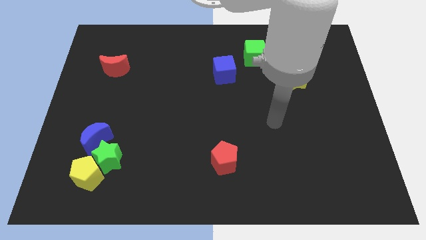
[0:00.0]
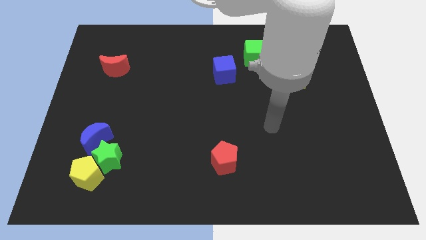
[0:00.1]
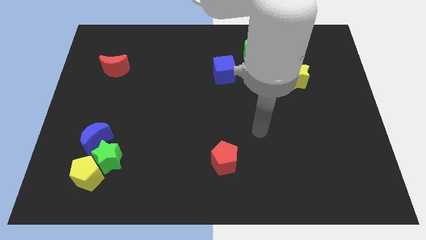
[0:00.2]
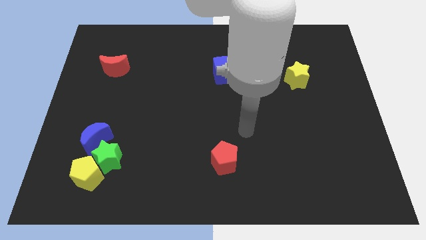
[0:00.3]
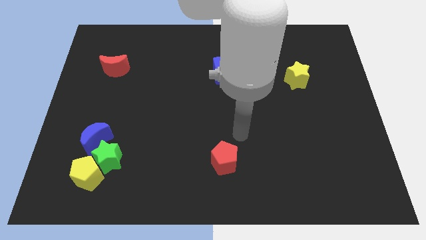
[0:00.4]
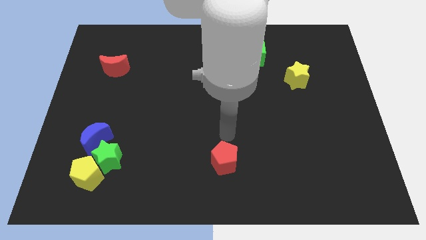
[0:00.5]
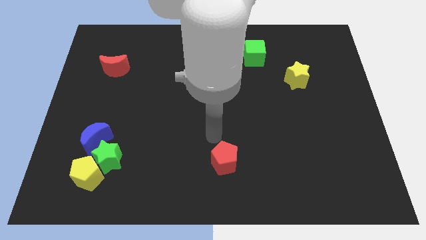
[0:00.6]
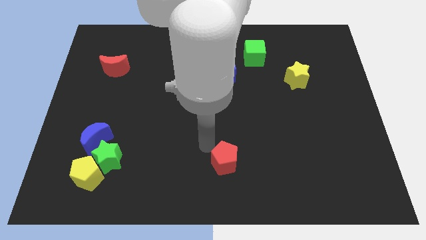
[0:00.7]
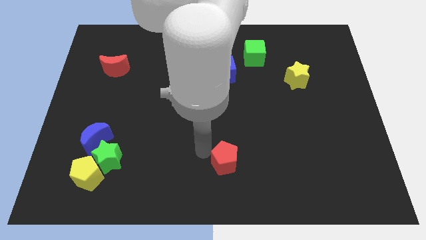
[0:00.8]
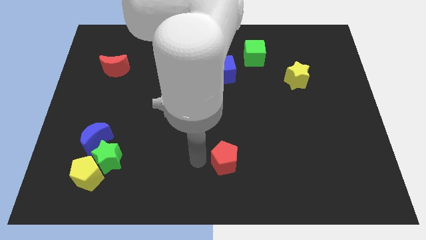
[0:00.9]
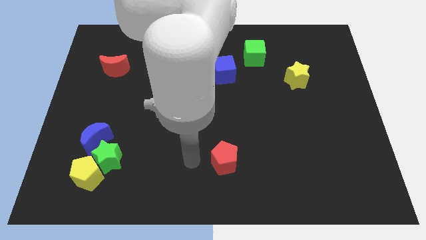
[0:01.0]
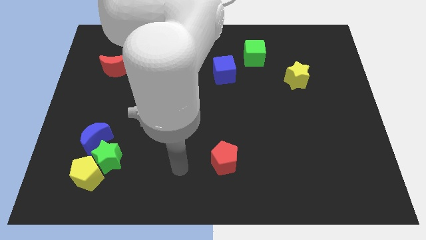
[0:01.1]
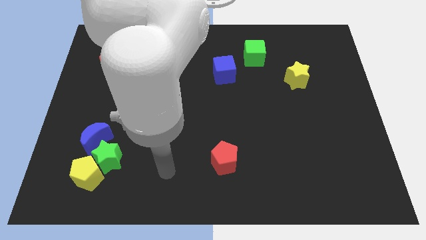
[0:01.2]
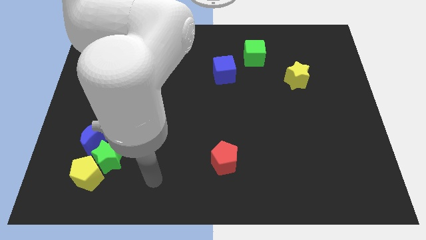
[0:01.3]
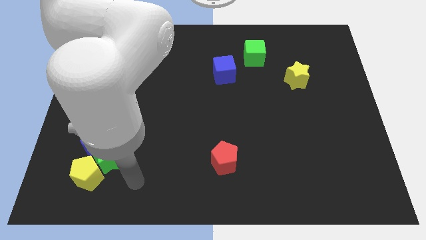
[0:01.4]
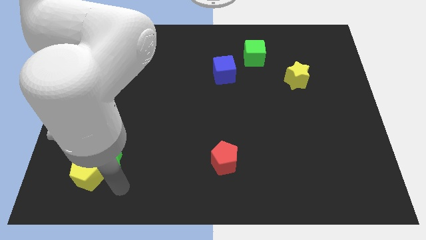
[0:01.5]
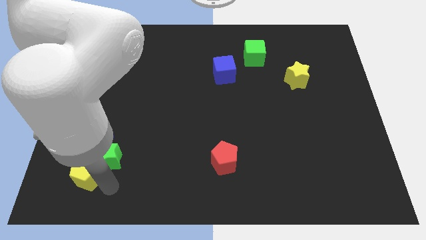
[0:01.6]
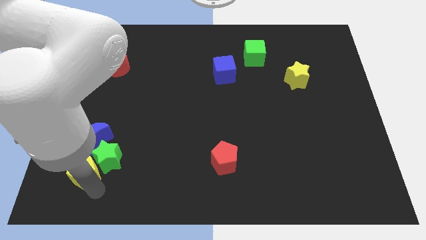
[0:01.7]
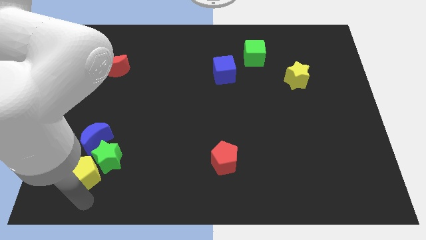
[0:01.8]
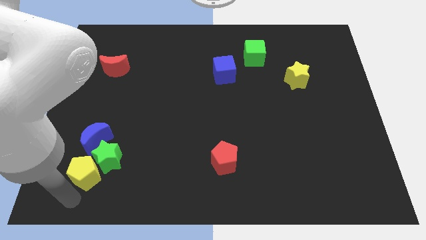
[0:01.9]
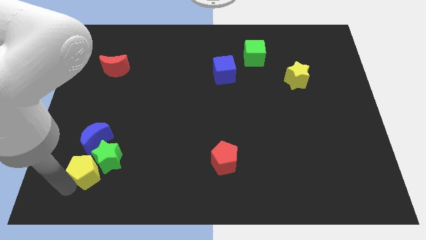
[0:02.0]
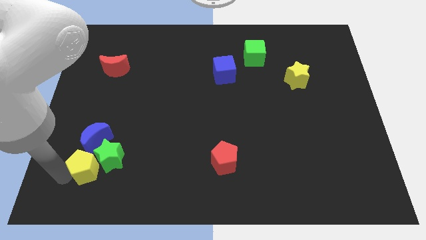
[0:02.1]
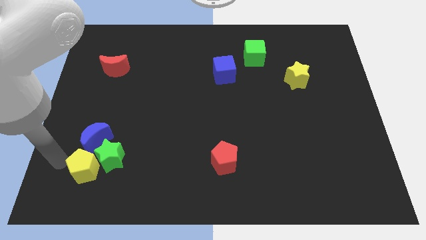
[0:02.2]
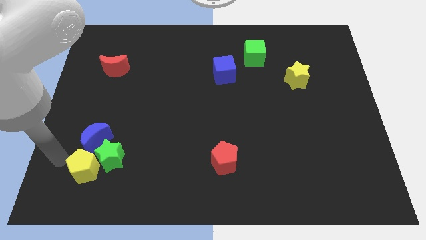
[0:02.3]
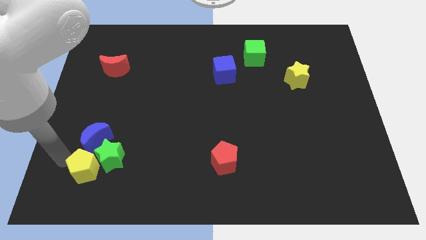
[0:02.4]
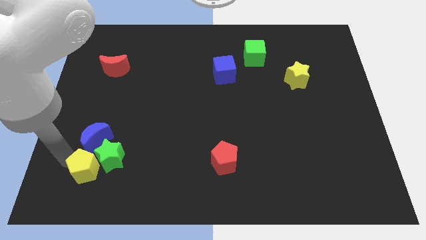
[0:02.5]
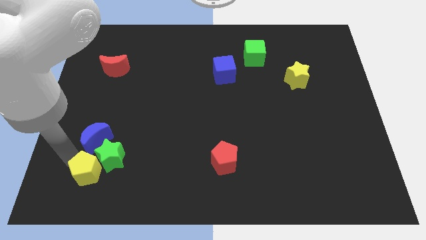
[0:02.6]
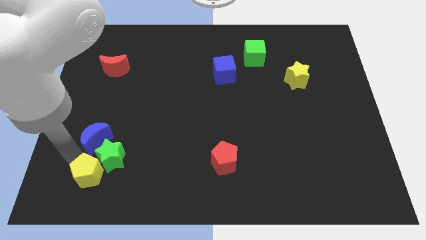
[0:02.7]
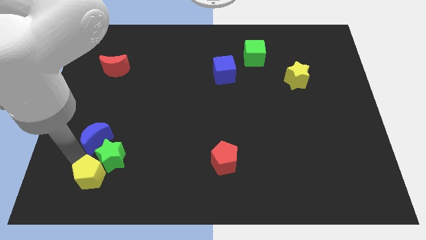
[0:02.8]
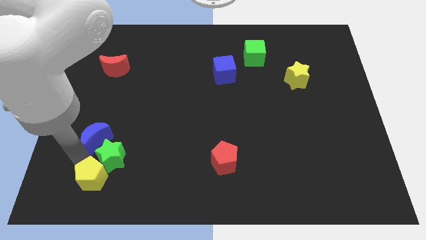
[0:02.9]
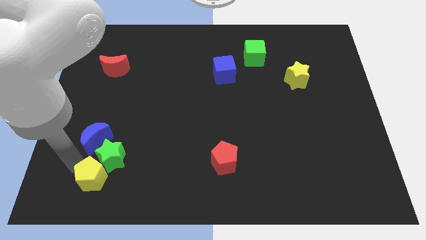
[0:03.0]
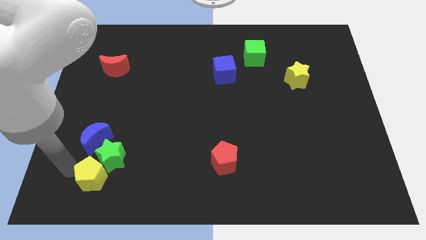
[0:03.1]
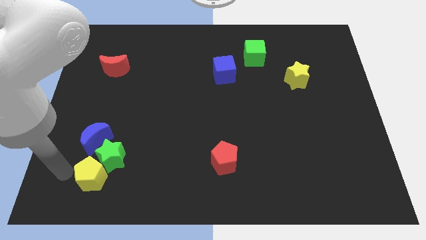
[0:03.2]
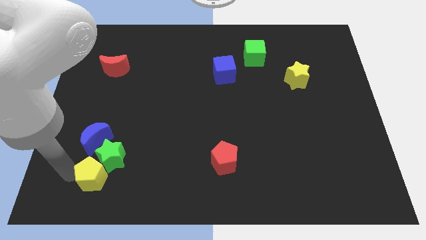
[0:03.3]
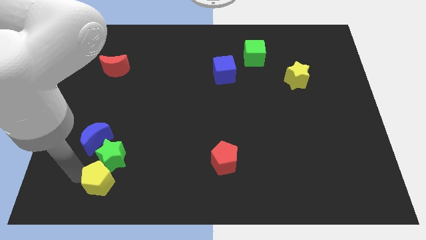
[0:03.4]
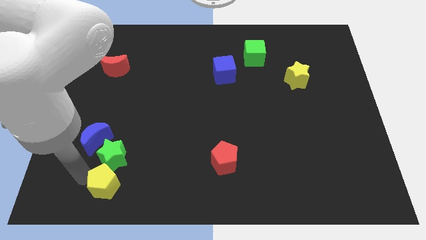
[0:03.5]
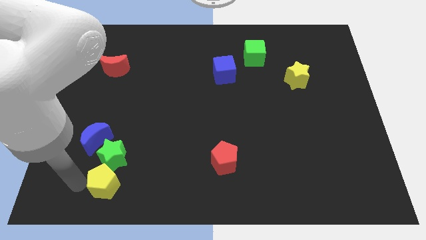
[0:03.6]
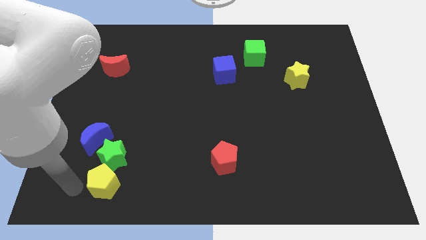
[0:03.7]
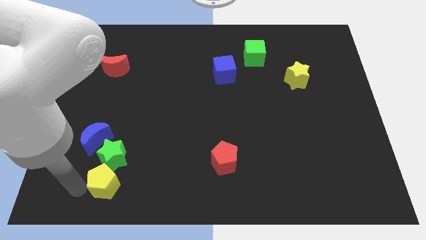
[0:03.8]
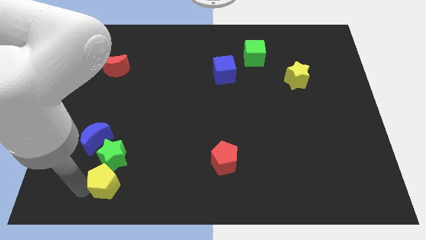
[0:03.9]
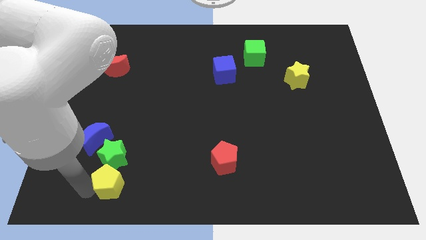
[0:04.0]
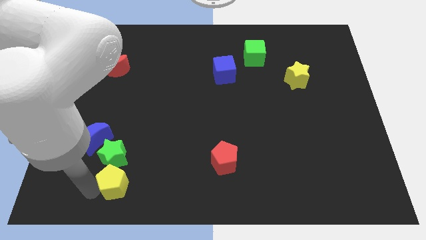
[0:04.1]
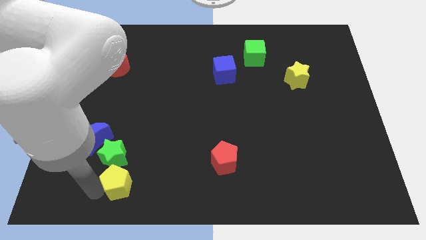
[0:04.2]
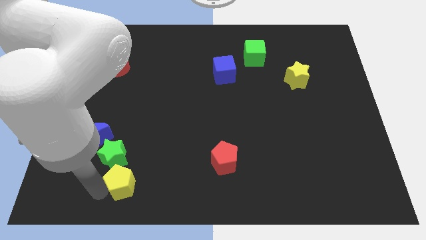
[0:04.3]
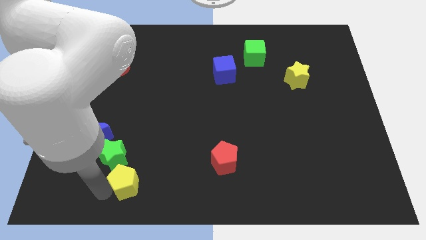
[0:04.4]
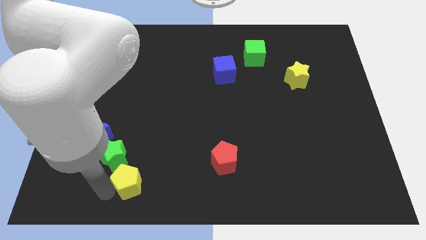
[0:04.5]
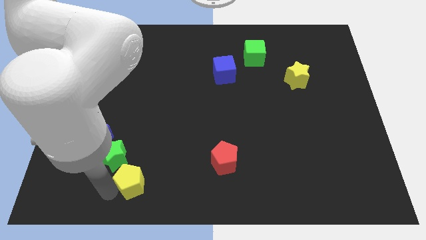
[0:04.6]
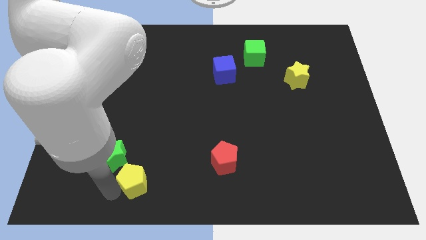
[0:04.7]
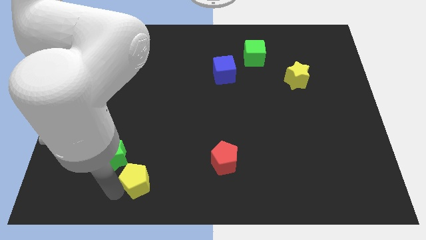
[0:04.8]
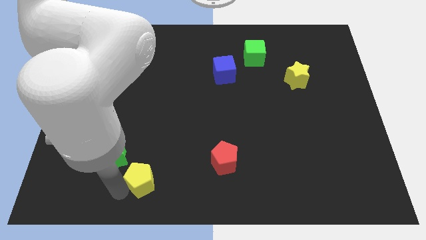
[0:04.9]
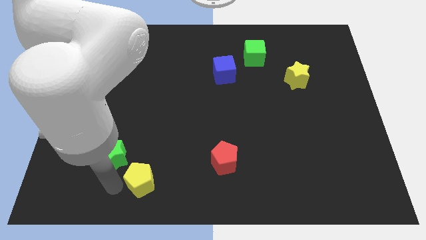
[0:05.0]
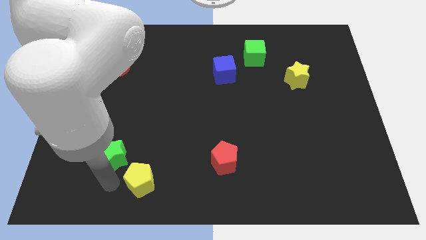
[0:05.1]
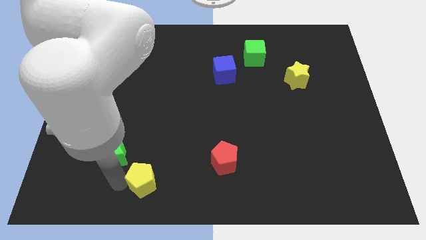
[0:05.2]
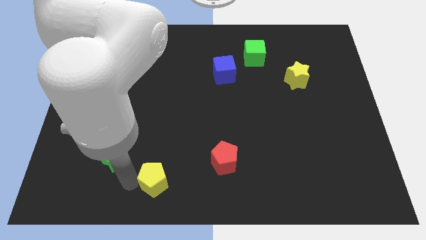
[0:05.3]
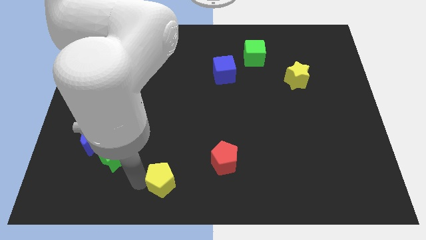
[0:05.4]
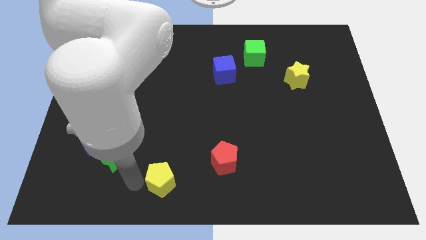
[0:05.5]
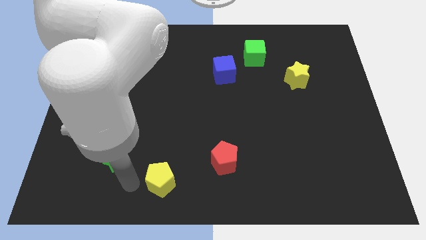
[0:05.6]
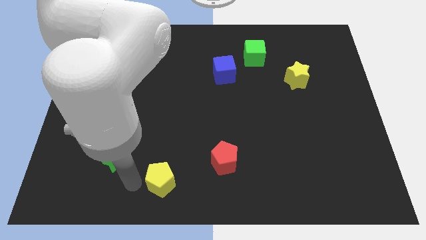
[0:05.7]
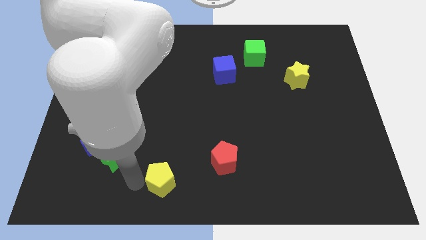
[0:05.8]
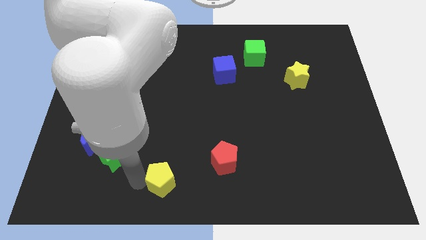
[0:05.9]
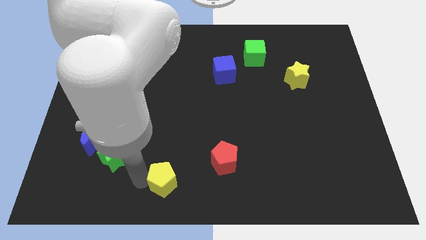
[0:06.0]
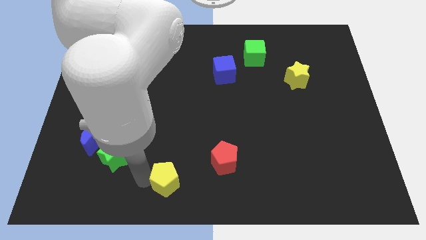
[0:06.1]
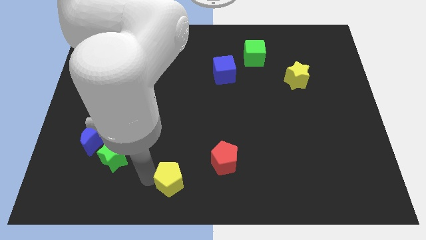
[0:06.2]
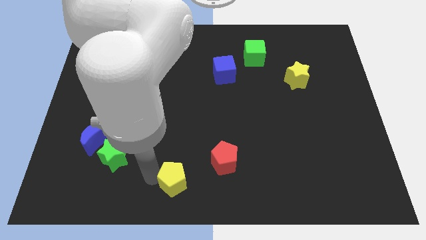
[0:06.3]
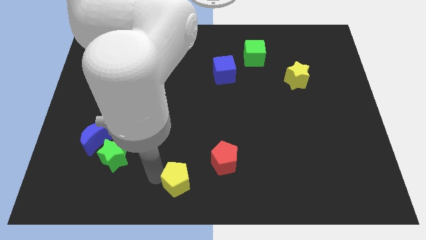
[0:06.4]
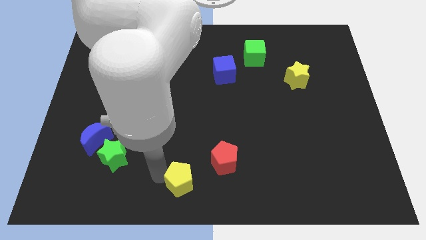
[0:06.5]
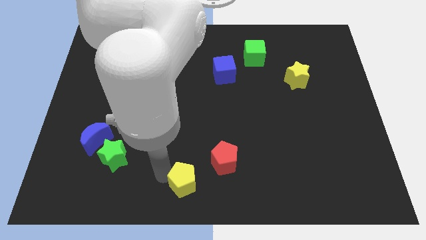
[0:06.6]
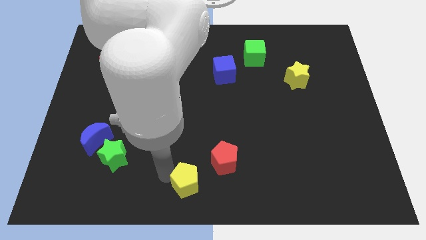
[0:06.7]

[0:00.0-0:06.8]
slide the yellow pentagon right

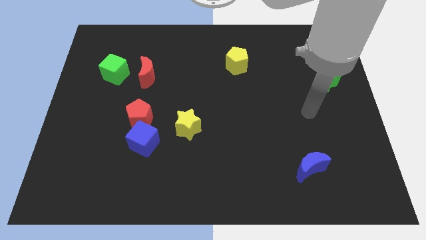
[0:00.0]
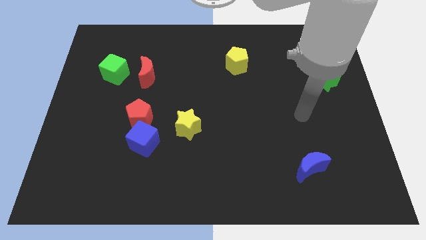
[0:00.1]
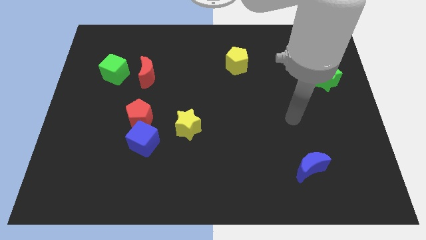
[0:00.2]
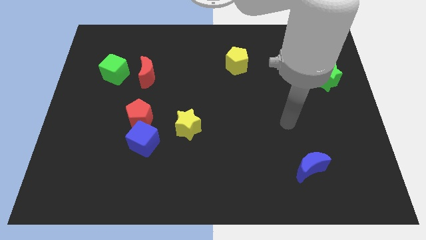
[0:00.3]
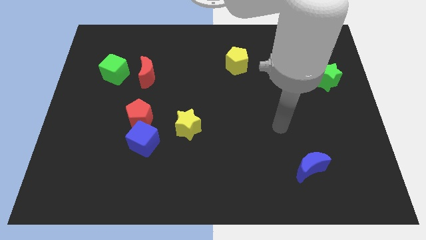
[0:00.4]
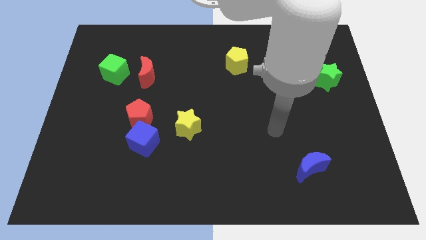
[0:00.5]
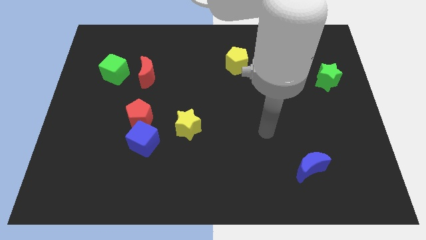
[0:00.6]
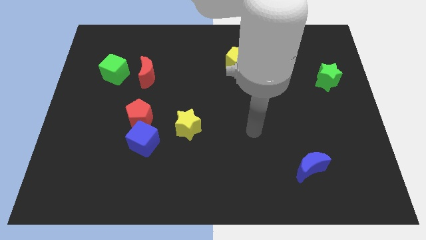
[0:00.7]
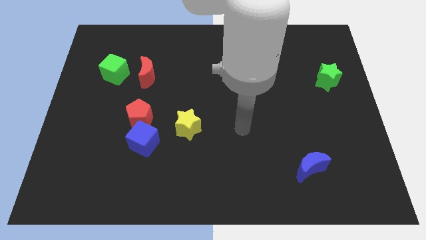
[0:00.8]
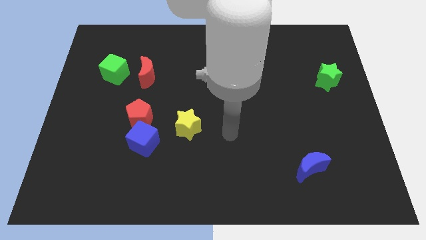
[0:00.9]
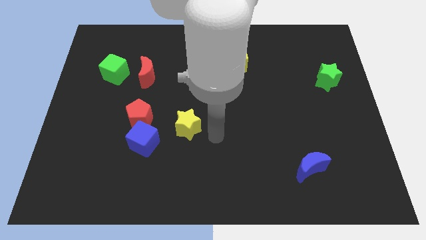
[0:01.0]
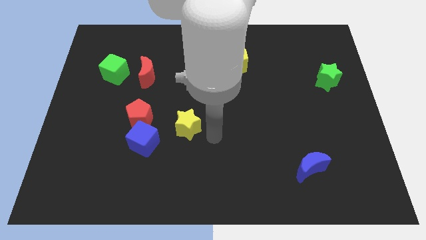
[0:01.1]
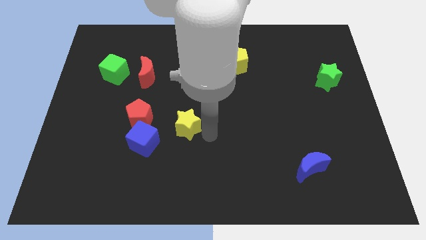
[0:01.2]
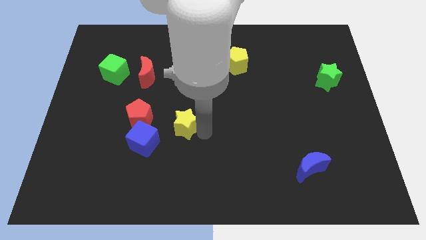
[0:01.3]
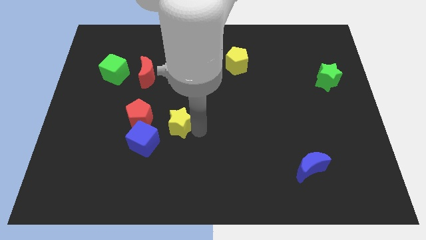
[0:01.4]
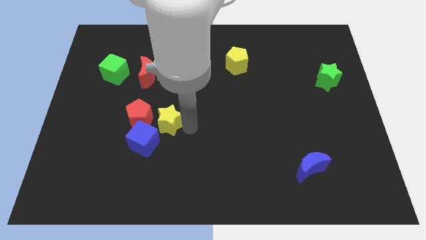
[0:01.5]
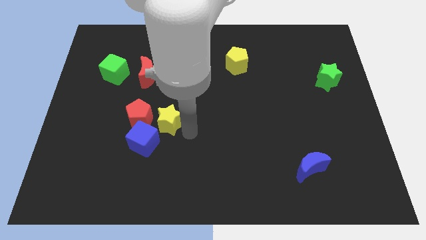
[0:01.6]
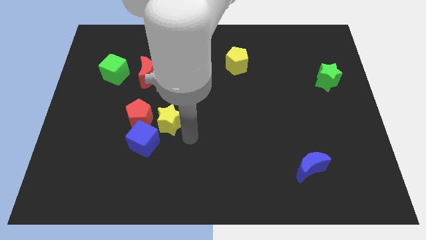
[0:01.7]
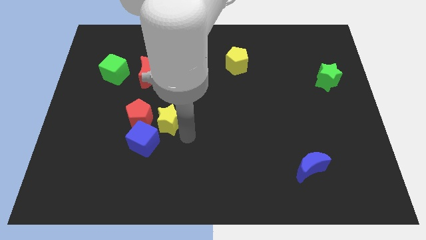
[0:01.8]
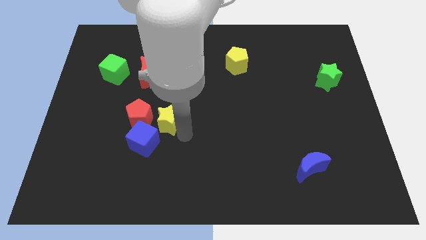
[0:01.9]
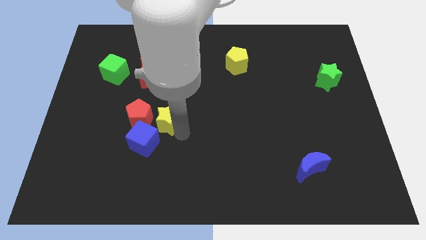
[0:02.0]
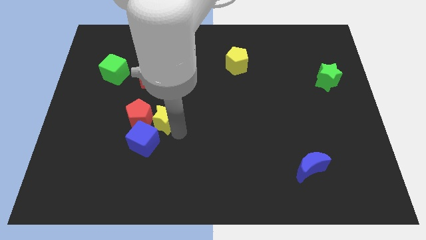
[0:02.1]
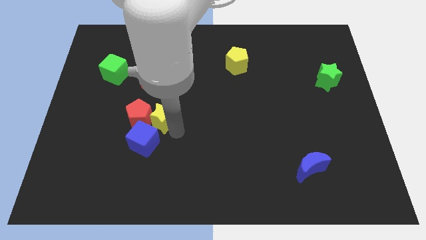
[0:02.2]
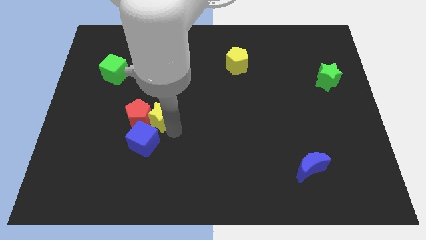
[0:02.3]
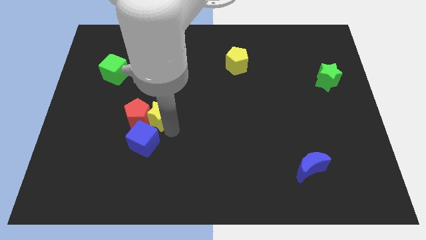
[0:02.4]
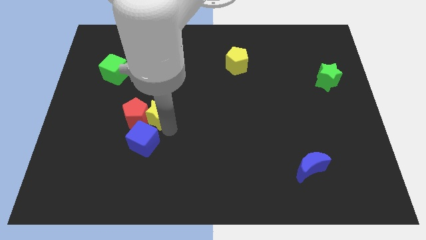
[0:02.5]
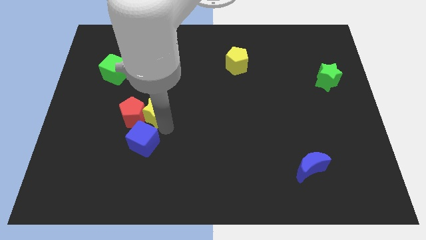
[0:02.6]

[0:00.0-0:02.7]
slide the yellow star to the left somewhat
